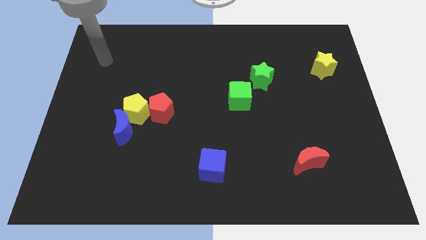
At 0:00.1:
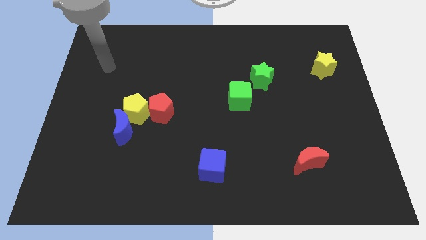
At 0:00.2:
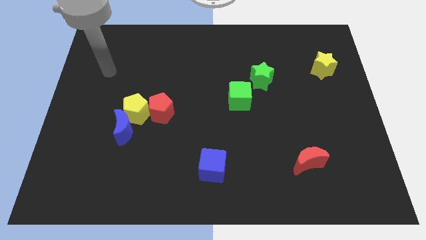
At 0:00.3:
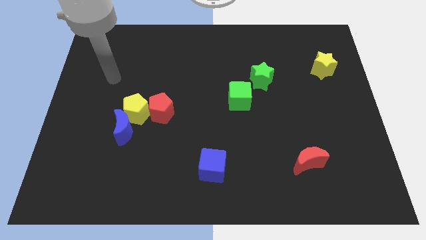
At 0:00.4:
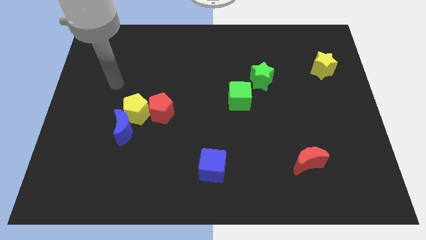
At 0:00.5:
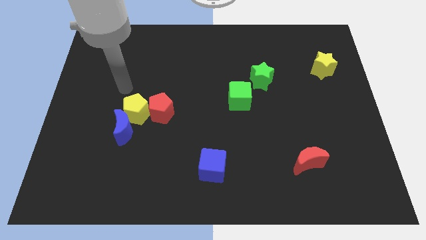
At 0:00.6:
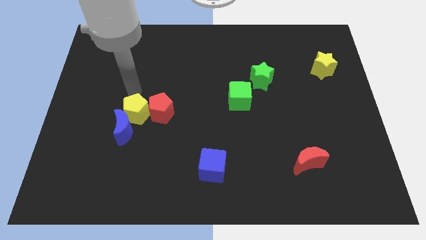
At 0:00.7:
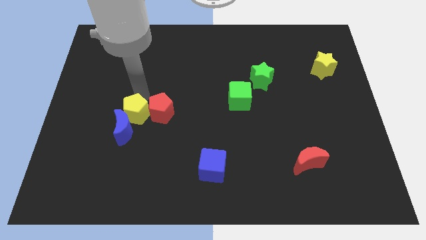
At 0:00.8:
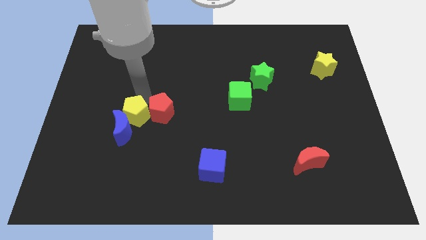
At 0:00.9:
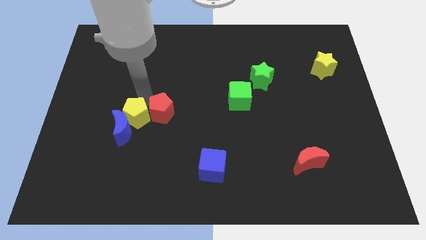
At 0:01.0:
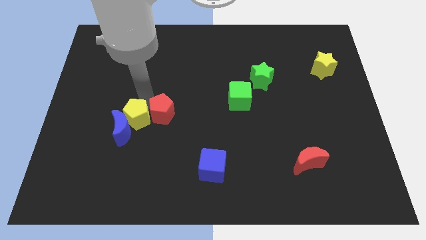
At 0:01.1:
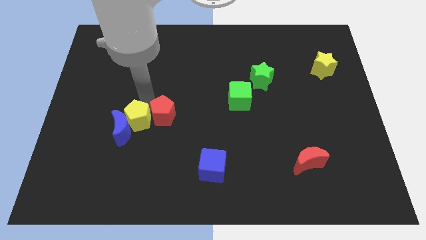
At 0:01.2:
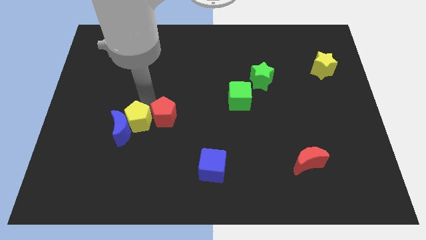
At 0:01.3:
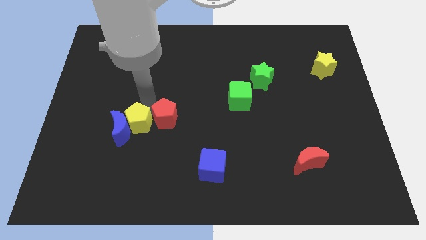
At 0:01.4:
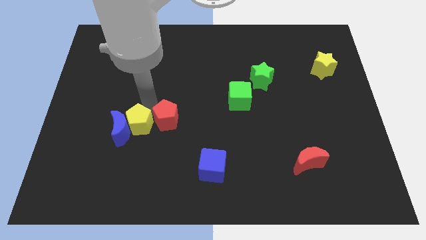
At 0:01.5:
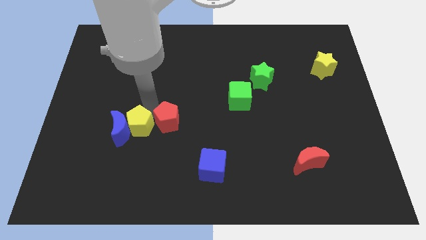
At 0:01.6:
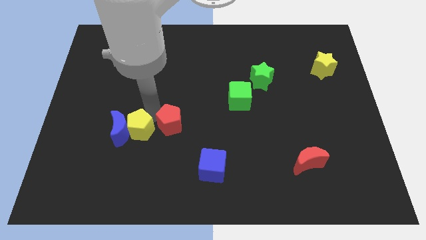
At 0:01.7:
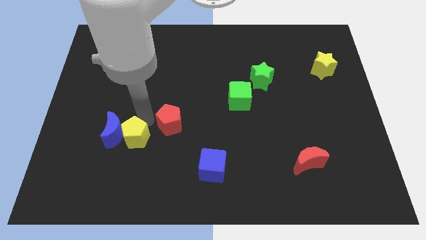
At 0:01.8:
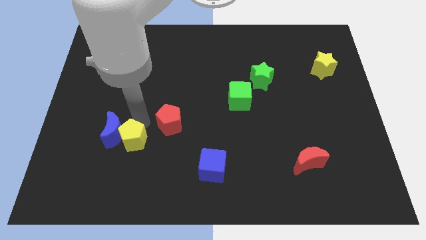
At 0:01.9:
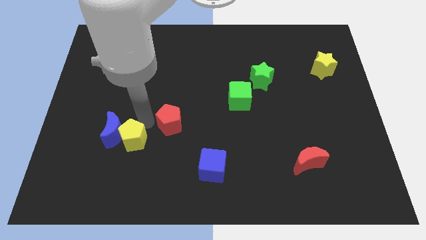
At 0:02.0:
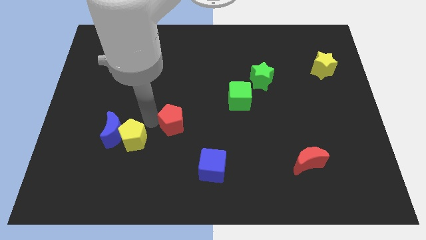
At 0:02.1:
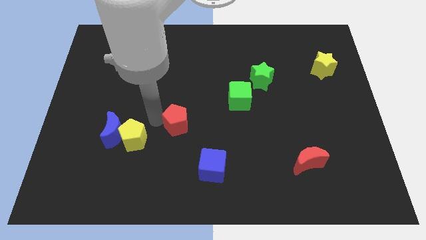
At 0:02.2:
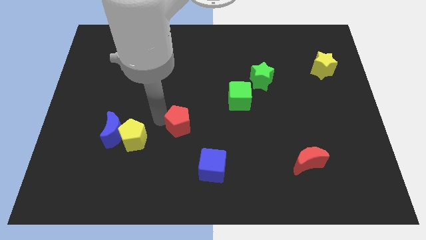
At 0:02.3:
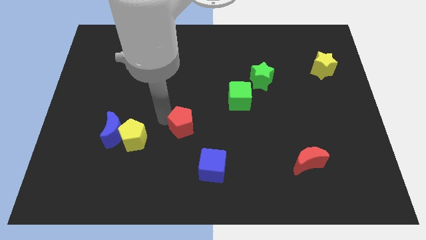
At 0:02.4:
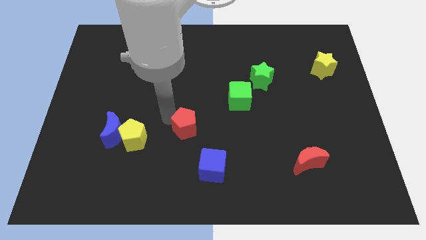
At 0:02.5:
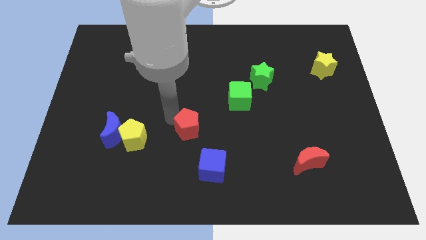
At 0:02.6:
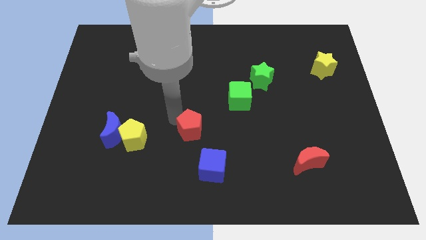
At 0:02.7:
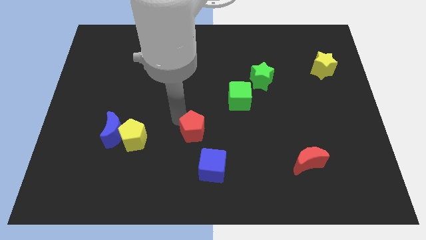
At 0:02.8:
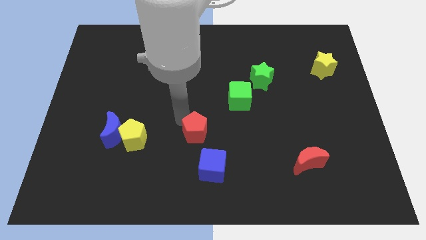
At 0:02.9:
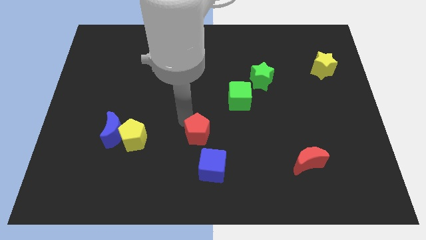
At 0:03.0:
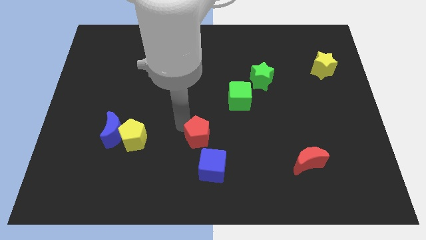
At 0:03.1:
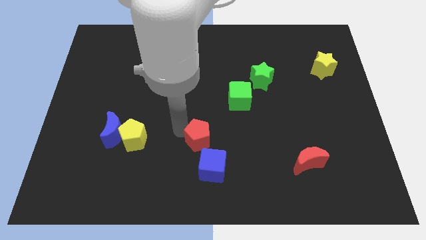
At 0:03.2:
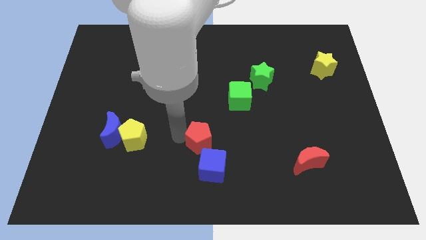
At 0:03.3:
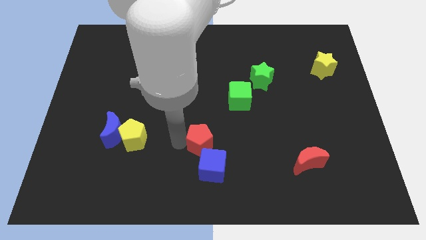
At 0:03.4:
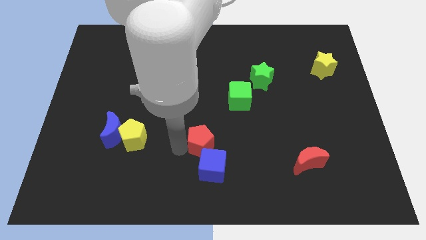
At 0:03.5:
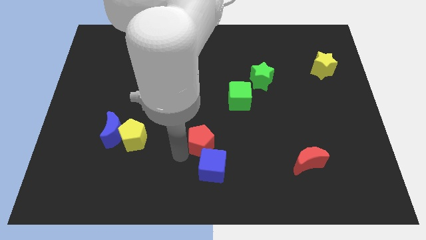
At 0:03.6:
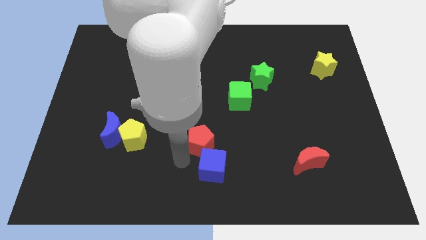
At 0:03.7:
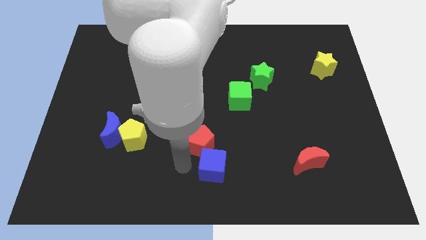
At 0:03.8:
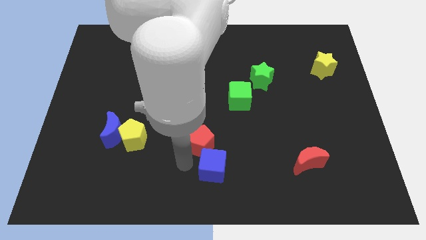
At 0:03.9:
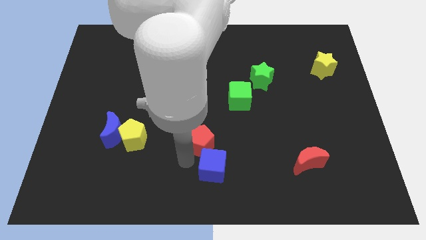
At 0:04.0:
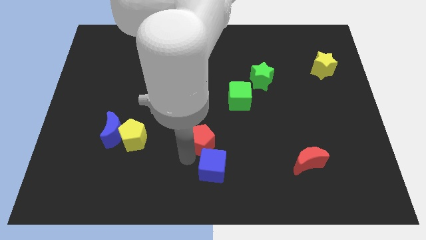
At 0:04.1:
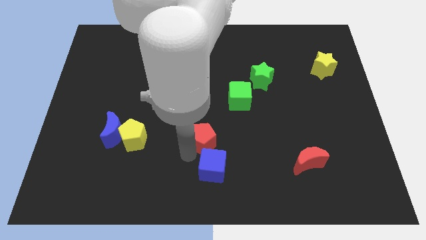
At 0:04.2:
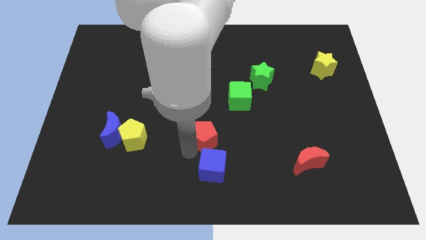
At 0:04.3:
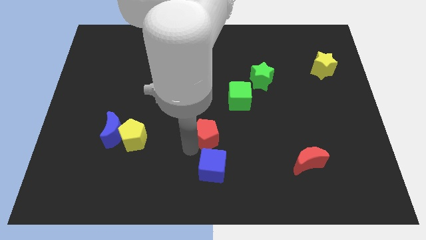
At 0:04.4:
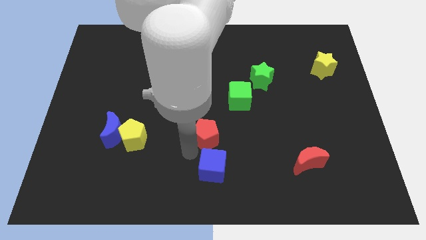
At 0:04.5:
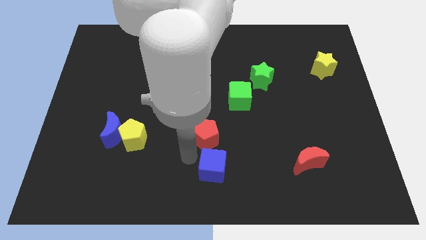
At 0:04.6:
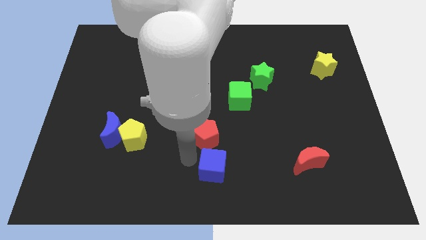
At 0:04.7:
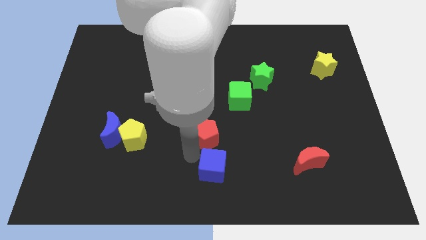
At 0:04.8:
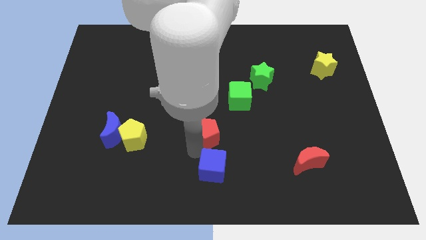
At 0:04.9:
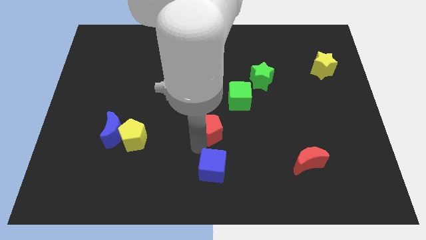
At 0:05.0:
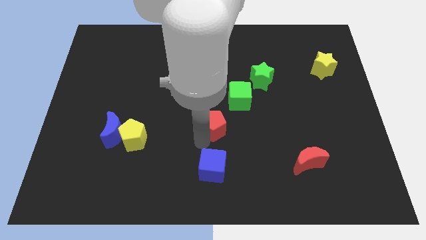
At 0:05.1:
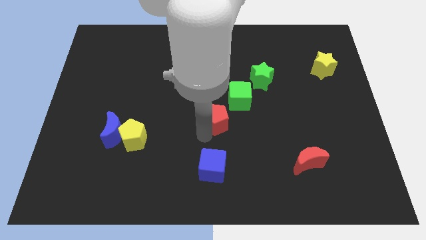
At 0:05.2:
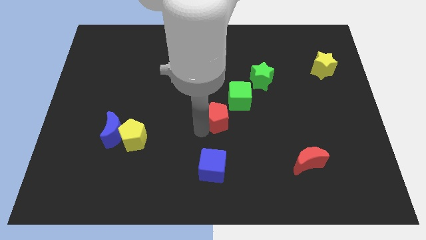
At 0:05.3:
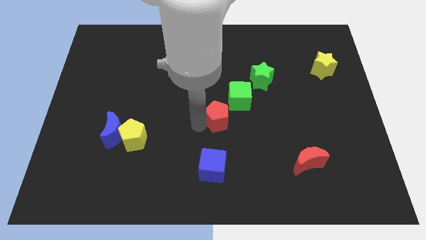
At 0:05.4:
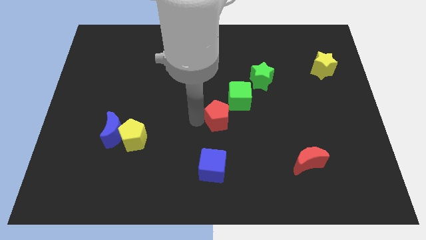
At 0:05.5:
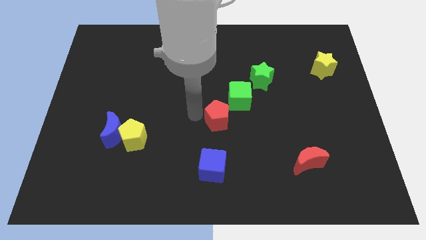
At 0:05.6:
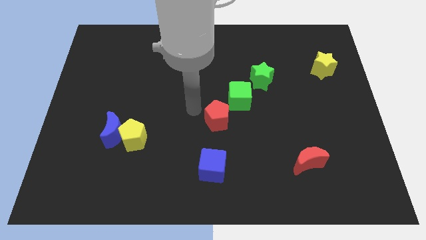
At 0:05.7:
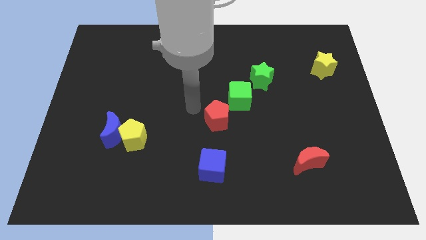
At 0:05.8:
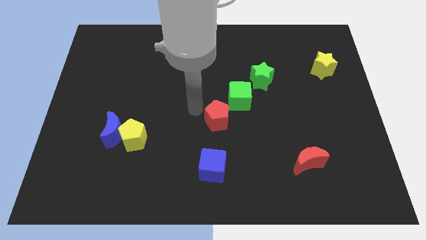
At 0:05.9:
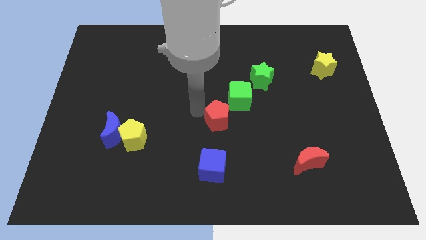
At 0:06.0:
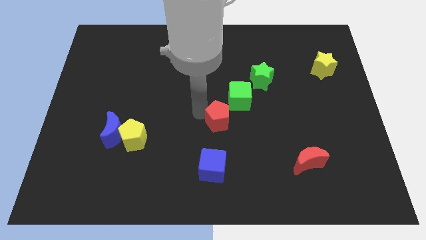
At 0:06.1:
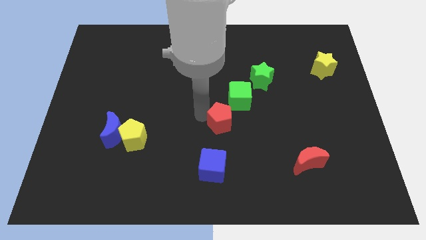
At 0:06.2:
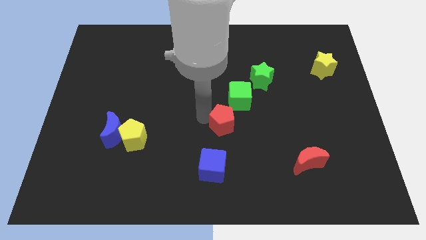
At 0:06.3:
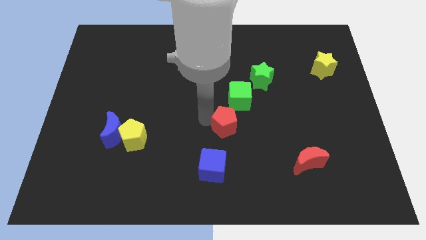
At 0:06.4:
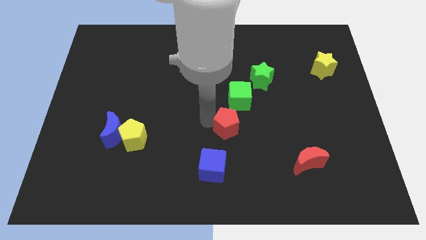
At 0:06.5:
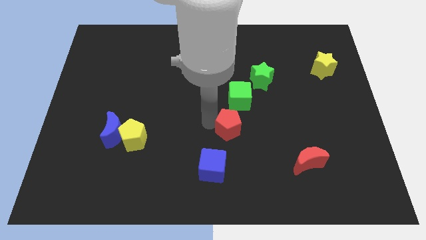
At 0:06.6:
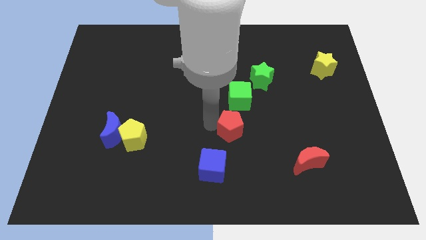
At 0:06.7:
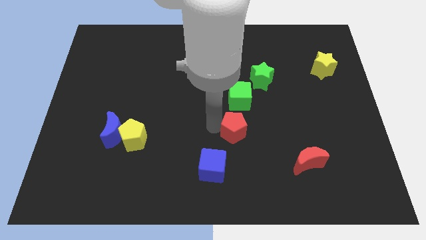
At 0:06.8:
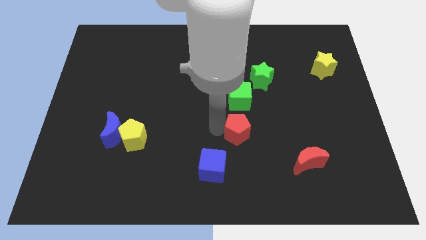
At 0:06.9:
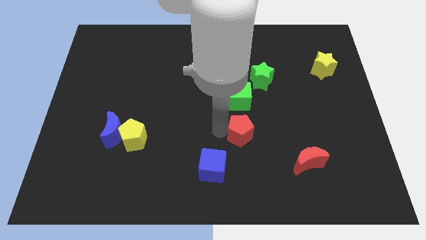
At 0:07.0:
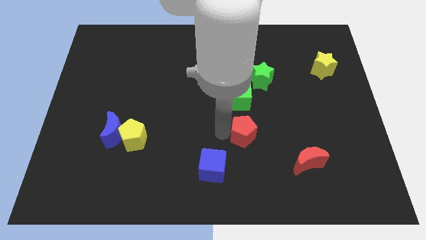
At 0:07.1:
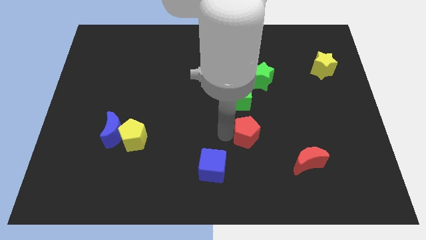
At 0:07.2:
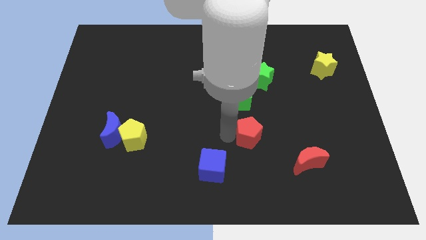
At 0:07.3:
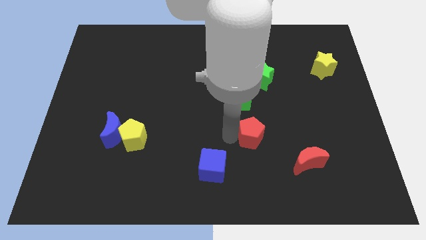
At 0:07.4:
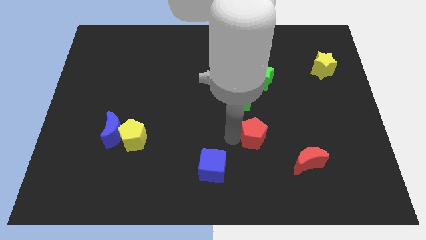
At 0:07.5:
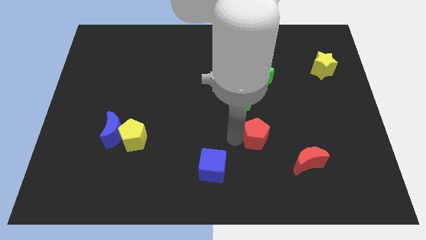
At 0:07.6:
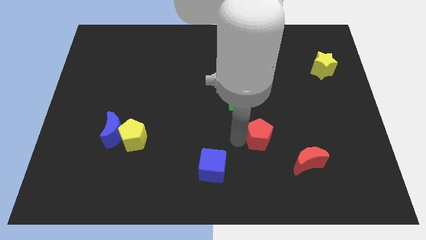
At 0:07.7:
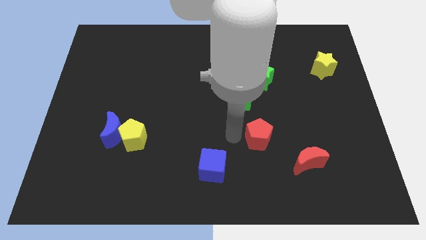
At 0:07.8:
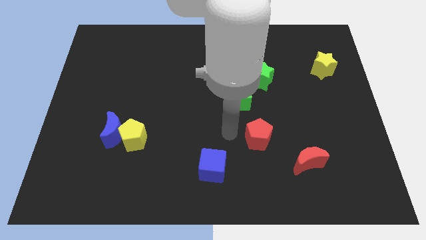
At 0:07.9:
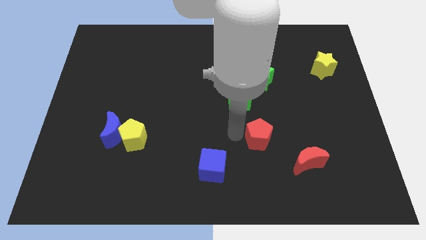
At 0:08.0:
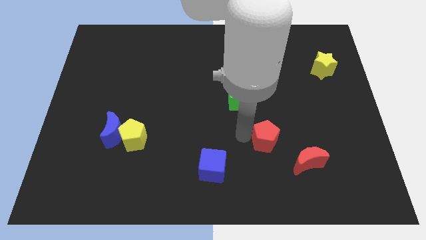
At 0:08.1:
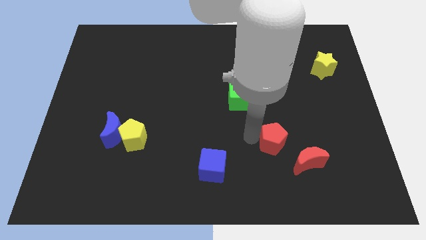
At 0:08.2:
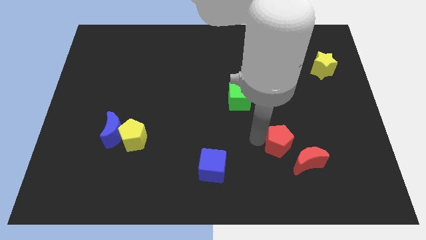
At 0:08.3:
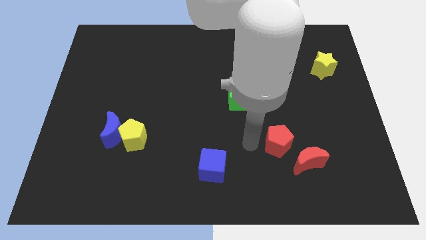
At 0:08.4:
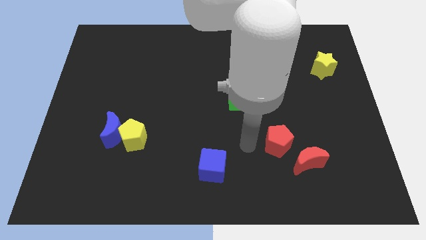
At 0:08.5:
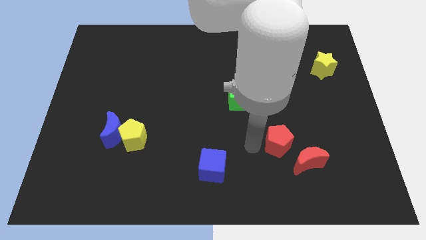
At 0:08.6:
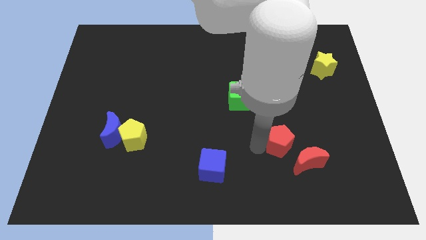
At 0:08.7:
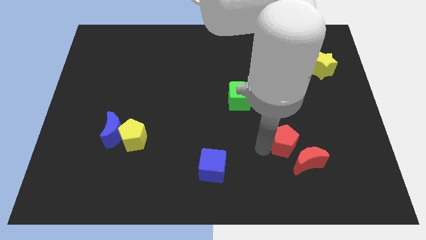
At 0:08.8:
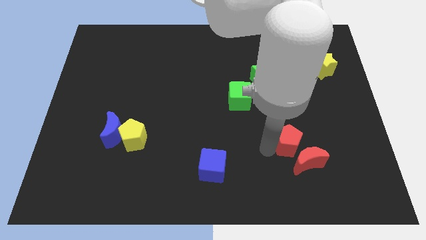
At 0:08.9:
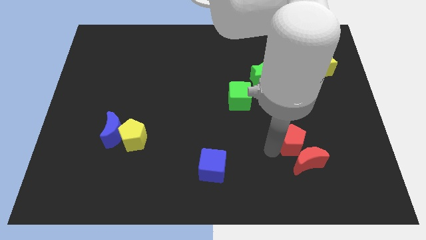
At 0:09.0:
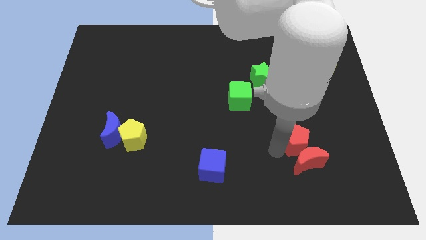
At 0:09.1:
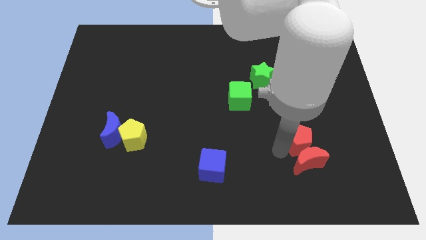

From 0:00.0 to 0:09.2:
move the red pentagon to the top right side of the red moon
